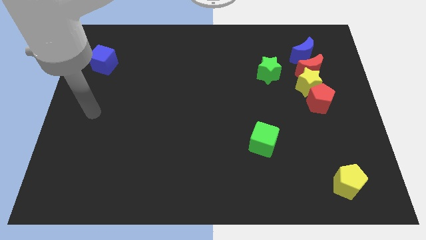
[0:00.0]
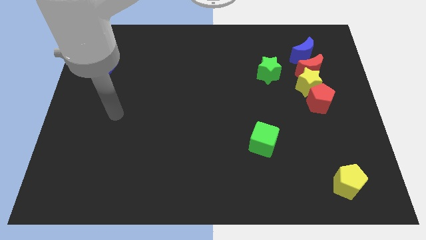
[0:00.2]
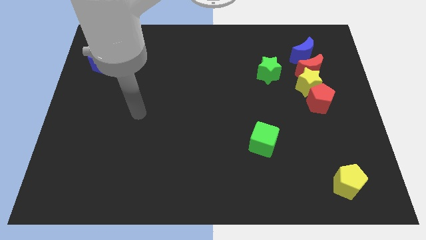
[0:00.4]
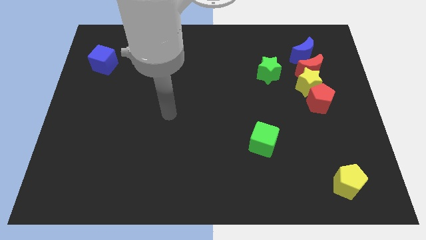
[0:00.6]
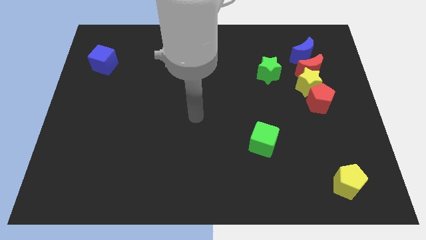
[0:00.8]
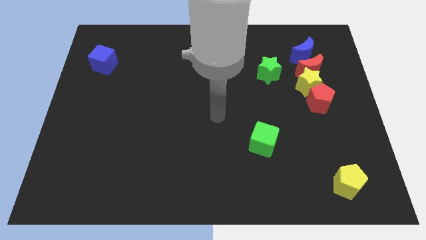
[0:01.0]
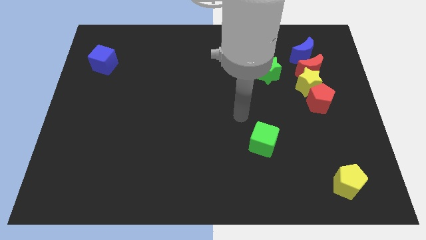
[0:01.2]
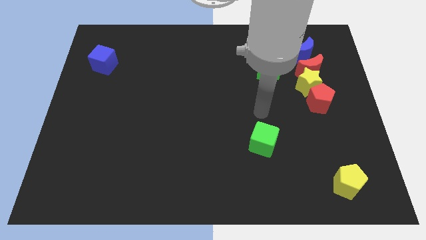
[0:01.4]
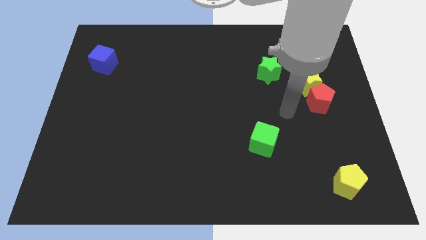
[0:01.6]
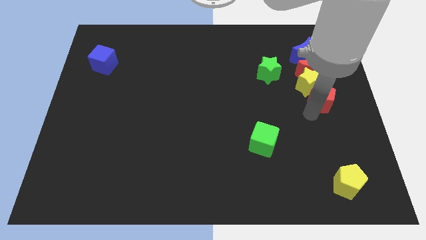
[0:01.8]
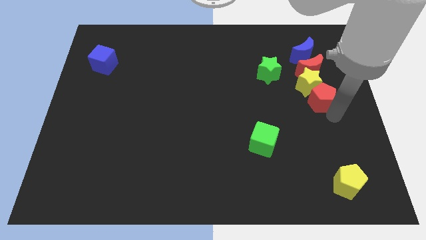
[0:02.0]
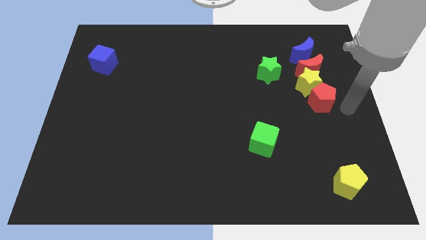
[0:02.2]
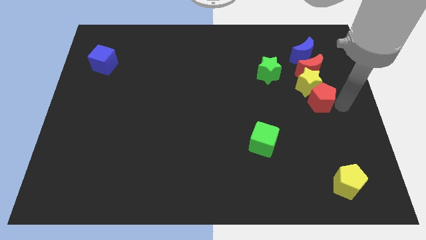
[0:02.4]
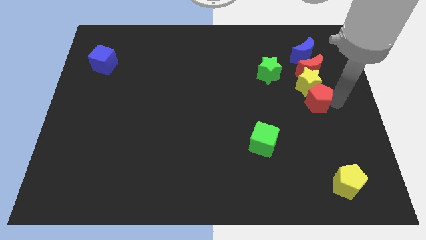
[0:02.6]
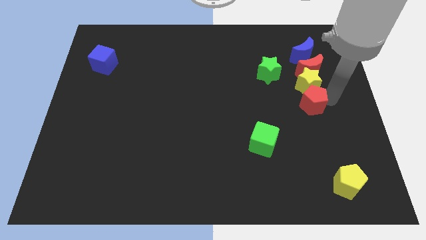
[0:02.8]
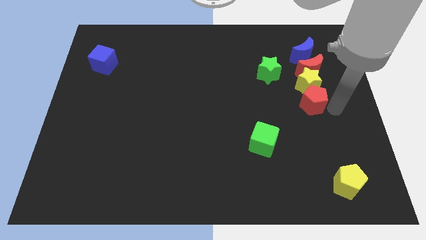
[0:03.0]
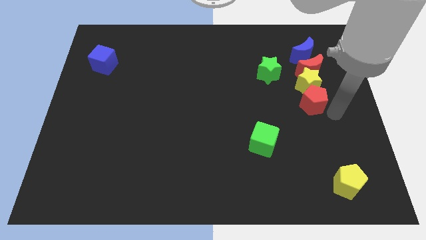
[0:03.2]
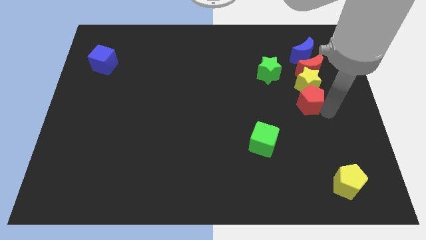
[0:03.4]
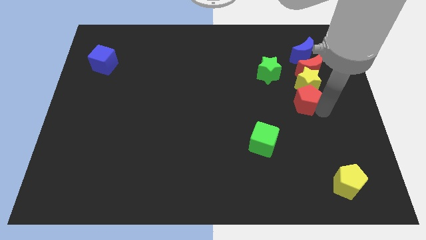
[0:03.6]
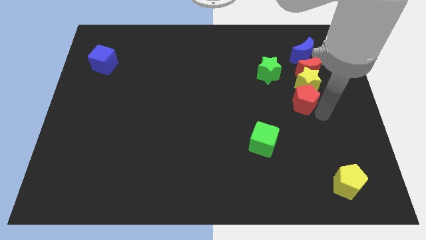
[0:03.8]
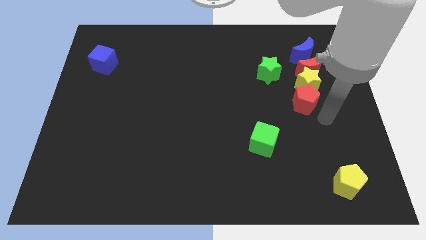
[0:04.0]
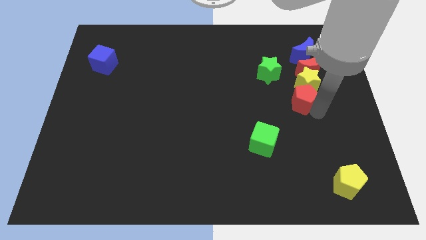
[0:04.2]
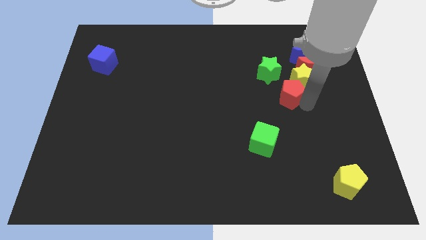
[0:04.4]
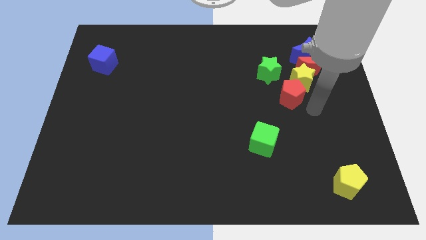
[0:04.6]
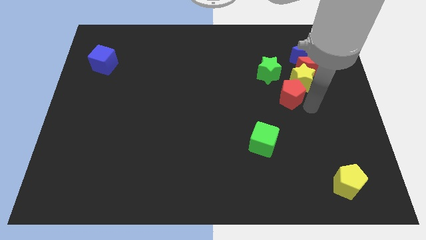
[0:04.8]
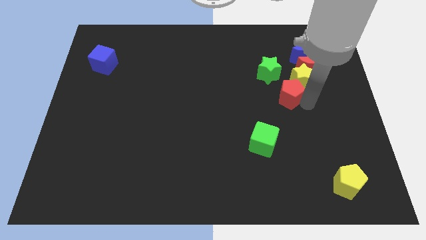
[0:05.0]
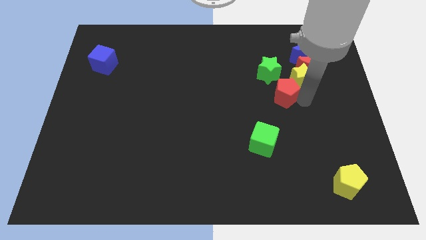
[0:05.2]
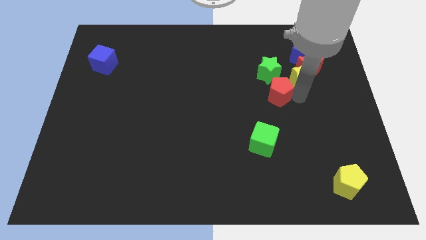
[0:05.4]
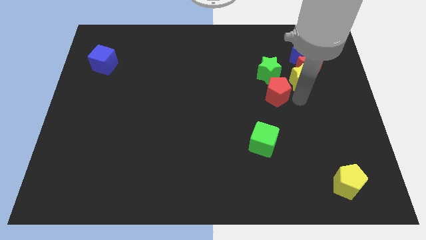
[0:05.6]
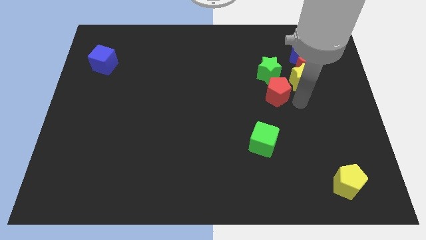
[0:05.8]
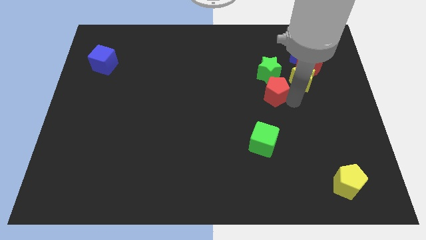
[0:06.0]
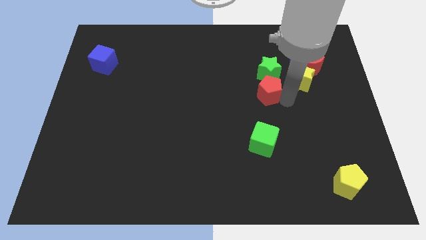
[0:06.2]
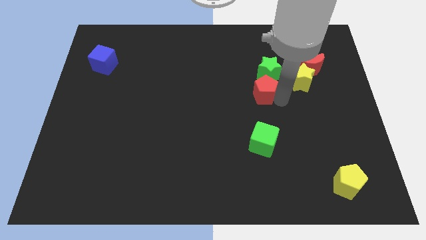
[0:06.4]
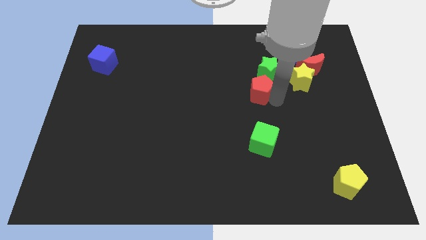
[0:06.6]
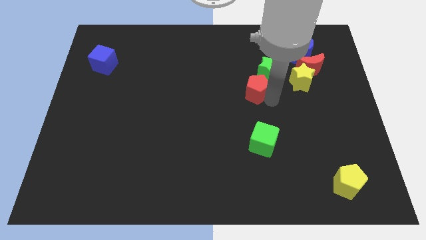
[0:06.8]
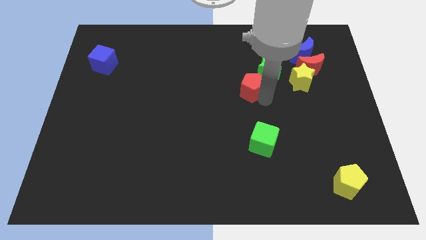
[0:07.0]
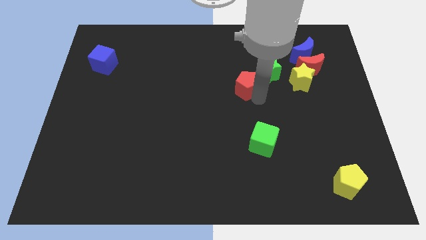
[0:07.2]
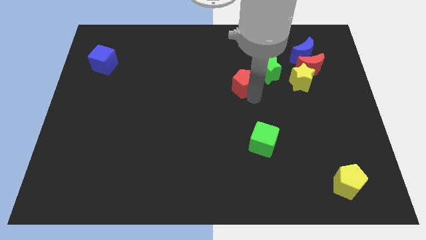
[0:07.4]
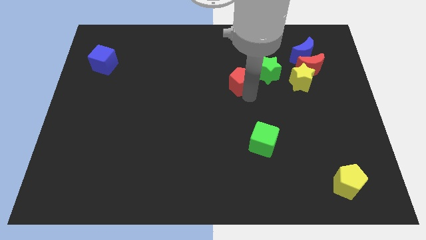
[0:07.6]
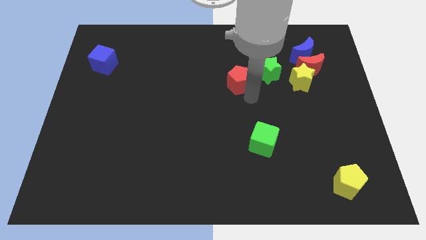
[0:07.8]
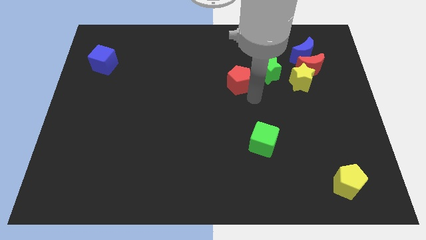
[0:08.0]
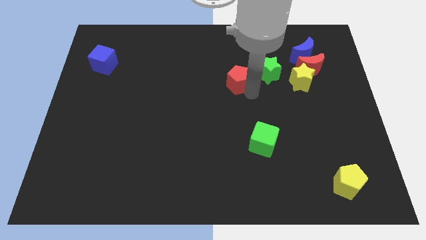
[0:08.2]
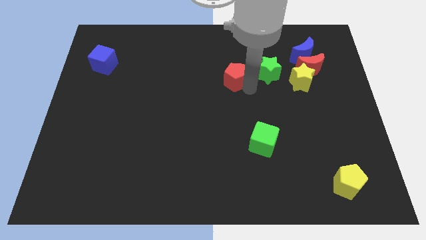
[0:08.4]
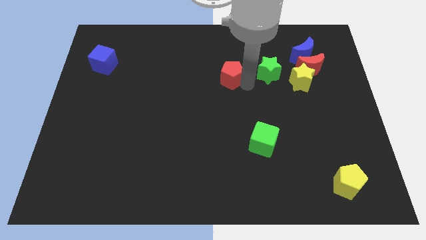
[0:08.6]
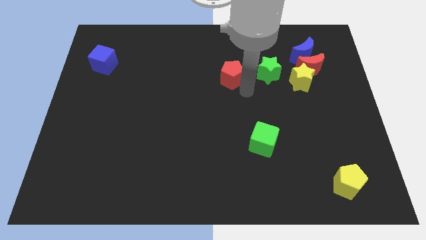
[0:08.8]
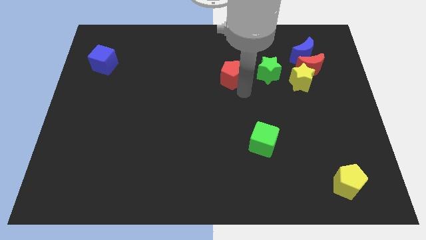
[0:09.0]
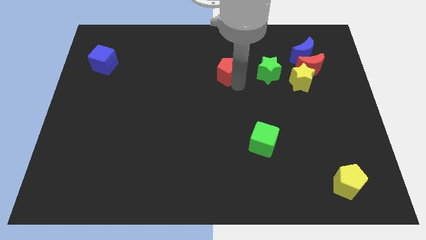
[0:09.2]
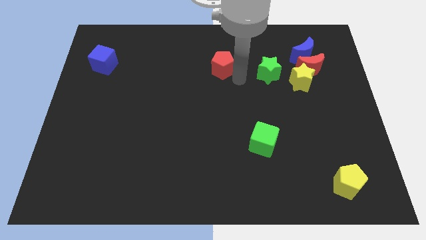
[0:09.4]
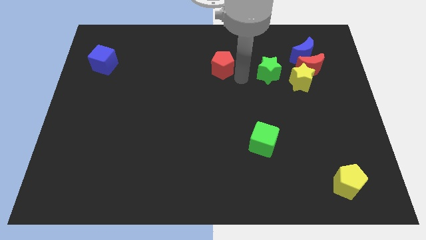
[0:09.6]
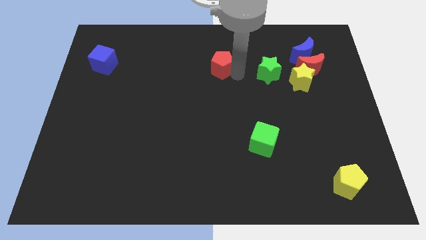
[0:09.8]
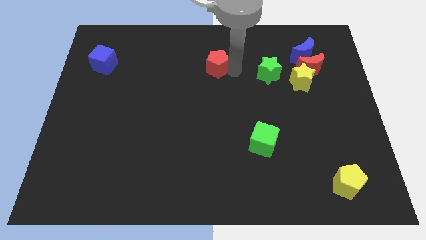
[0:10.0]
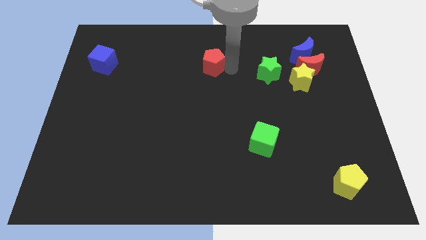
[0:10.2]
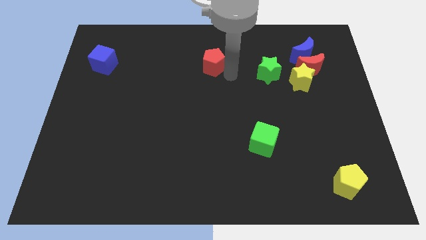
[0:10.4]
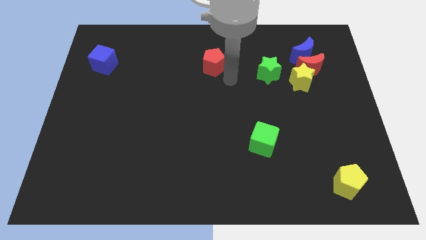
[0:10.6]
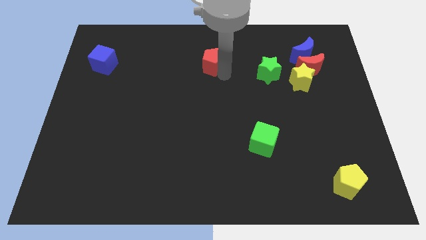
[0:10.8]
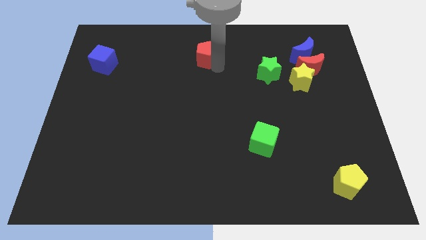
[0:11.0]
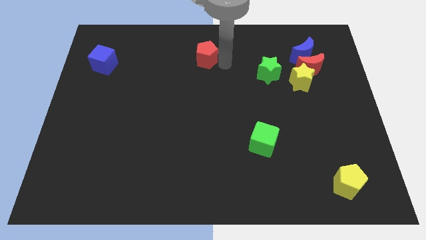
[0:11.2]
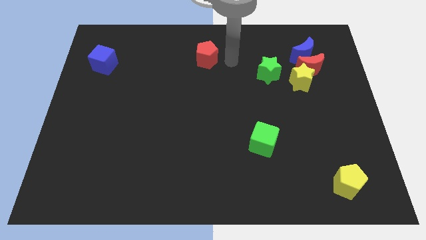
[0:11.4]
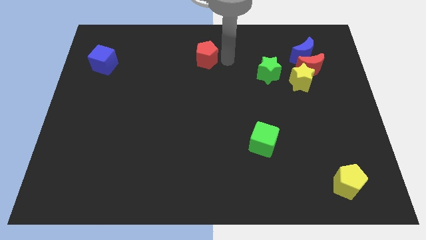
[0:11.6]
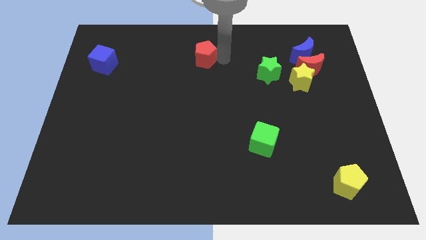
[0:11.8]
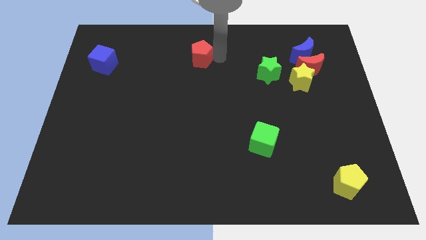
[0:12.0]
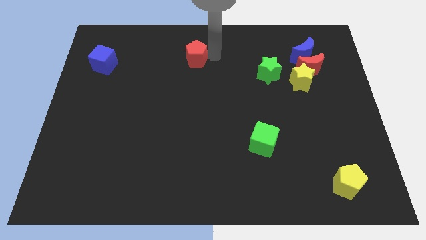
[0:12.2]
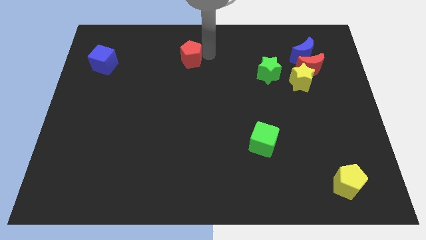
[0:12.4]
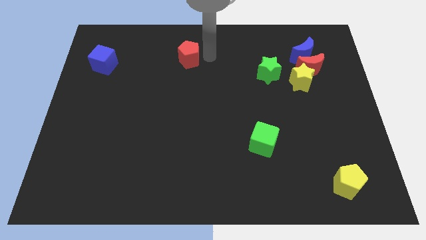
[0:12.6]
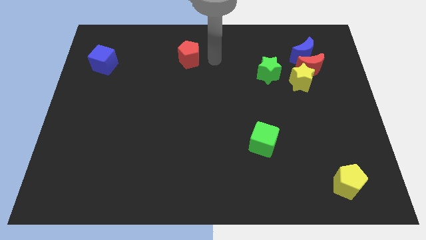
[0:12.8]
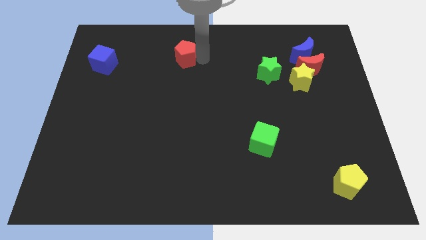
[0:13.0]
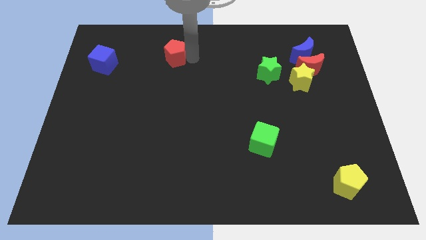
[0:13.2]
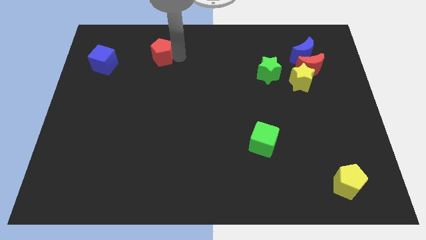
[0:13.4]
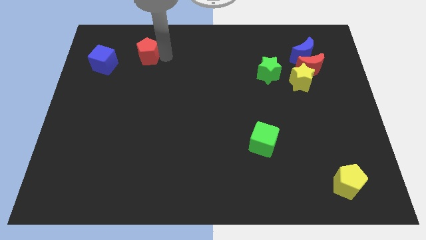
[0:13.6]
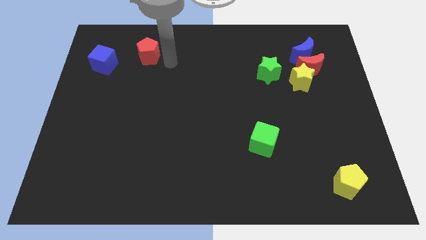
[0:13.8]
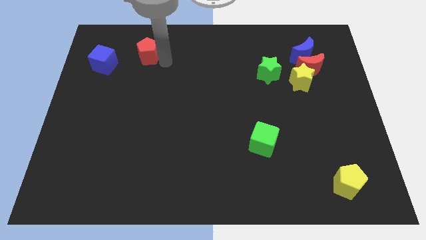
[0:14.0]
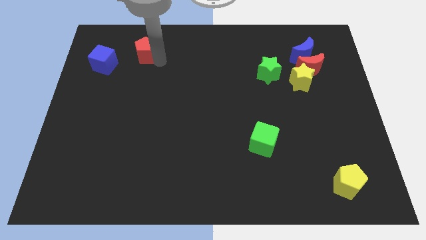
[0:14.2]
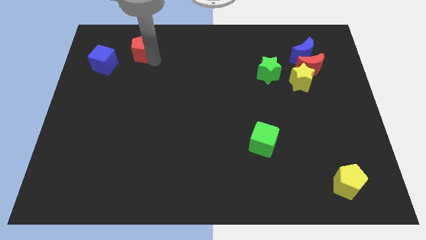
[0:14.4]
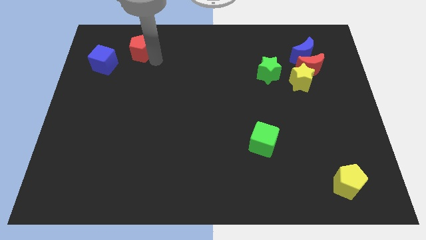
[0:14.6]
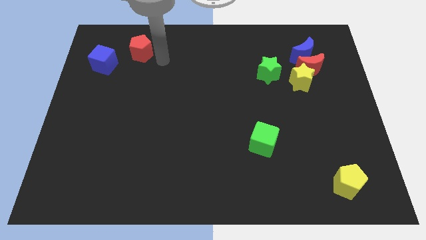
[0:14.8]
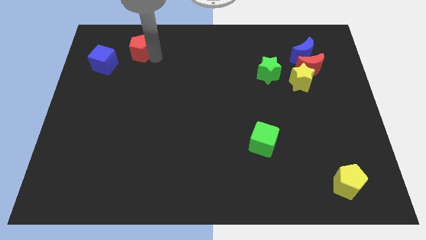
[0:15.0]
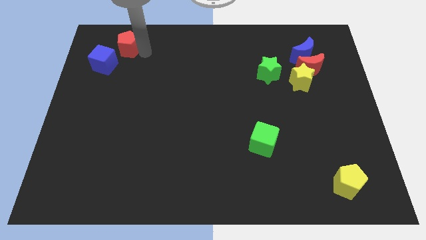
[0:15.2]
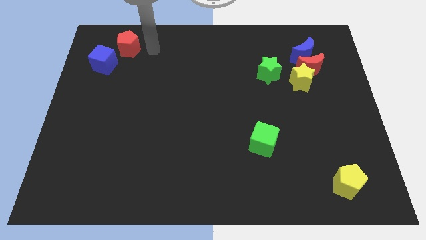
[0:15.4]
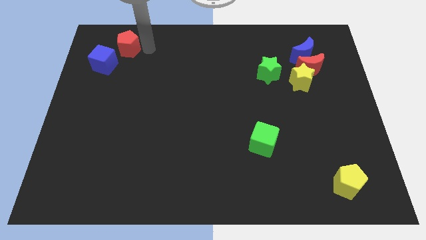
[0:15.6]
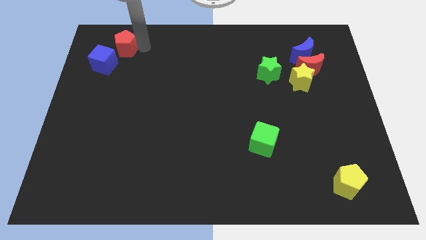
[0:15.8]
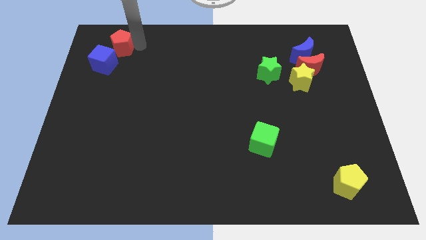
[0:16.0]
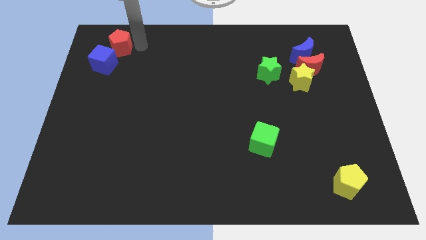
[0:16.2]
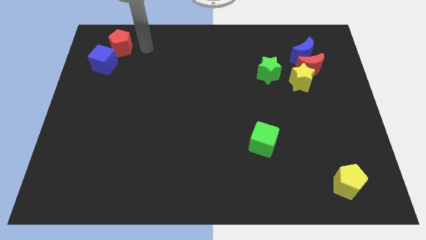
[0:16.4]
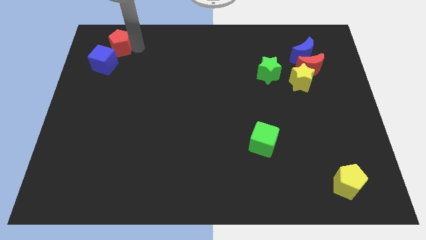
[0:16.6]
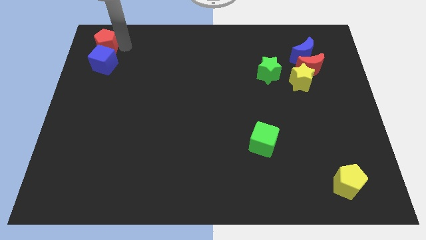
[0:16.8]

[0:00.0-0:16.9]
push the red pentagon to the top left
